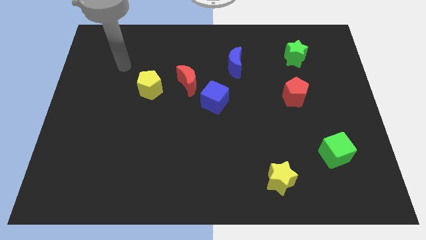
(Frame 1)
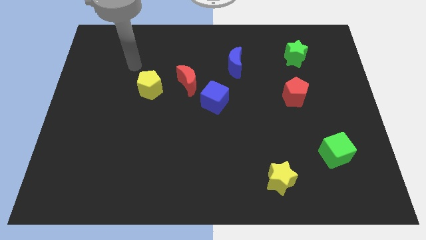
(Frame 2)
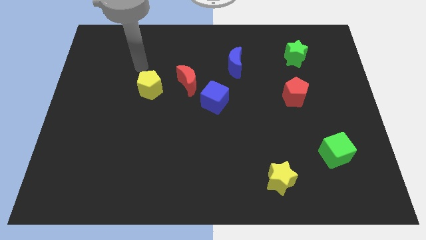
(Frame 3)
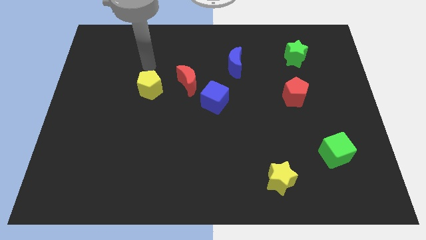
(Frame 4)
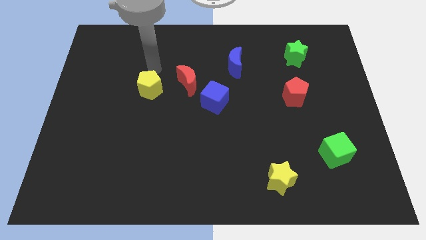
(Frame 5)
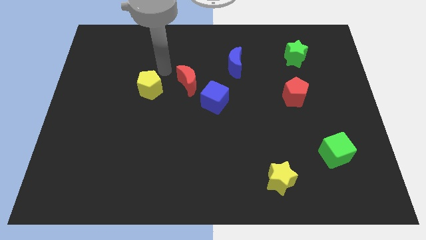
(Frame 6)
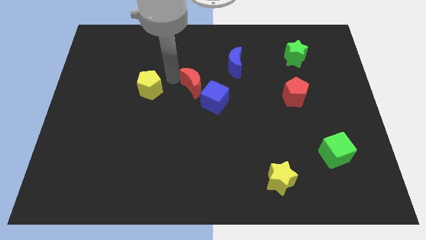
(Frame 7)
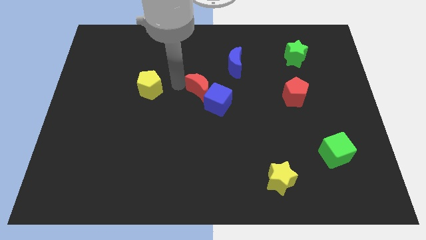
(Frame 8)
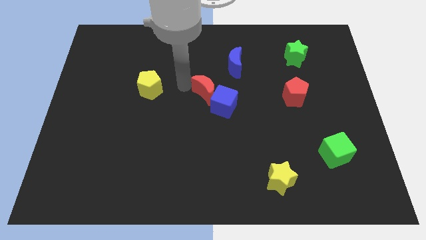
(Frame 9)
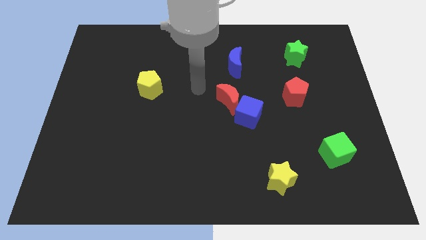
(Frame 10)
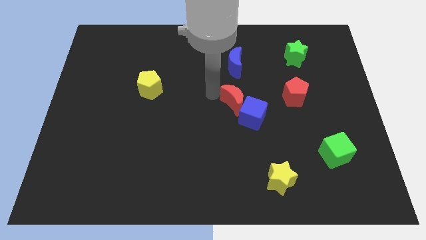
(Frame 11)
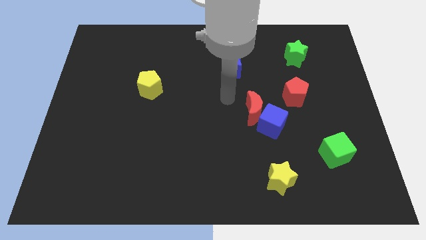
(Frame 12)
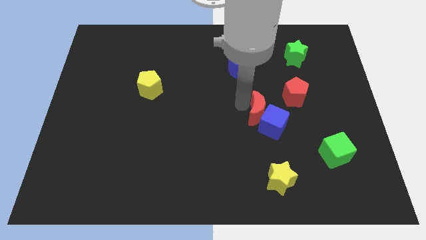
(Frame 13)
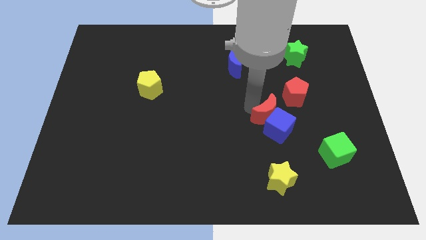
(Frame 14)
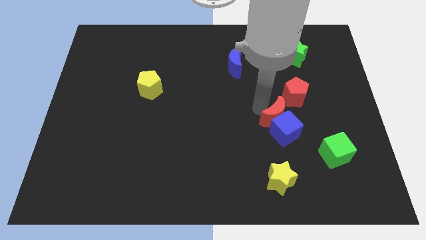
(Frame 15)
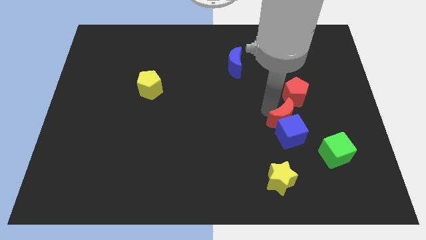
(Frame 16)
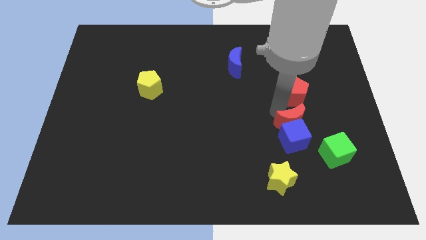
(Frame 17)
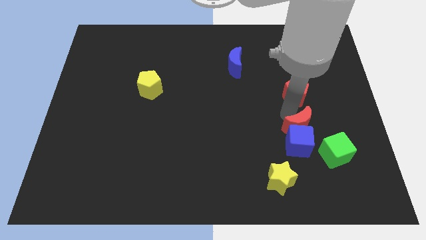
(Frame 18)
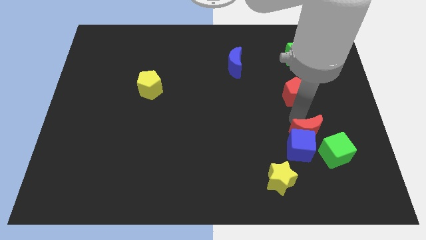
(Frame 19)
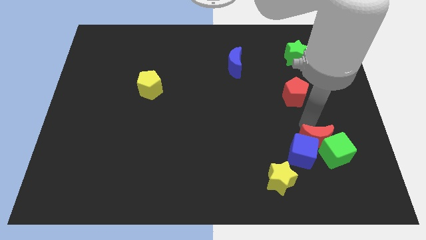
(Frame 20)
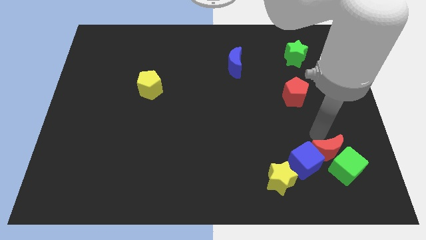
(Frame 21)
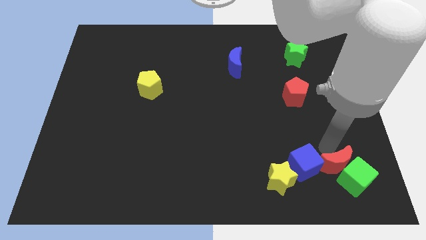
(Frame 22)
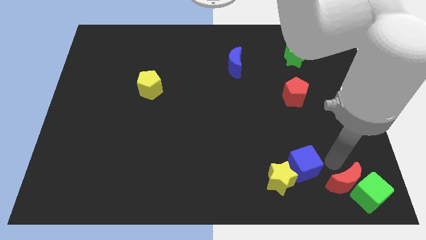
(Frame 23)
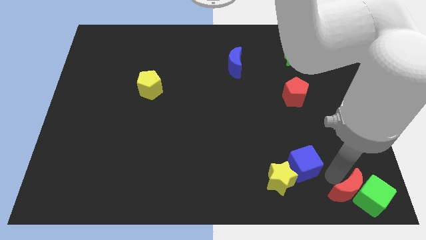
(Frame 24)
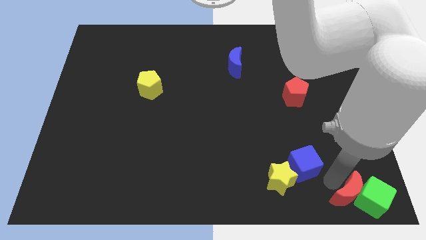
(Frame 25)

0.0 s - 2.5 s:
separate the blue cube from the red moon

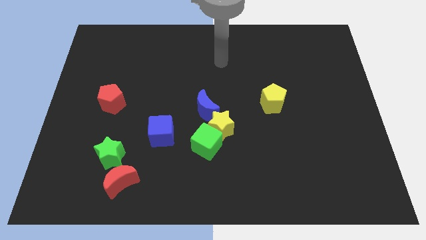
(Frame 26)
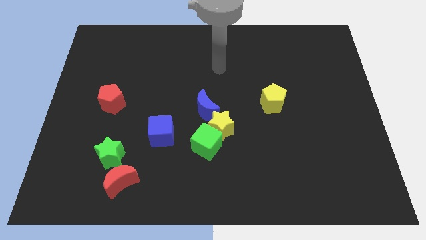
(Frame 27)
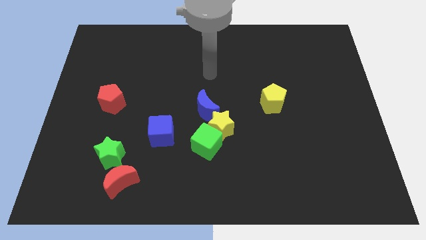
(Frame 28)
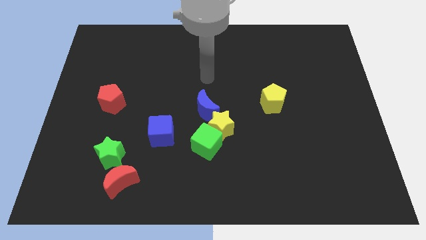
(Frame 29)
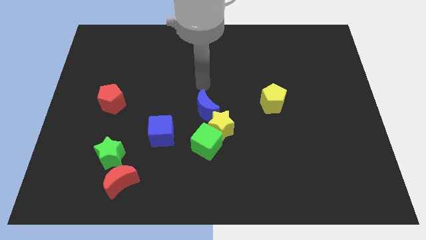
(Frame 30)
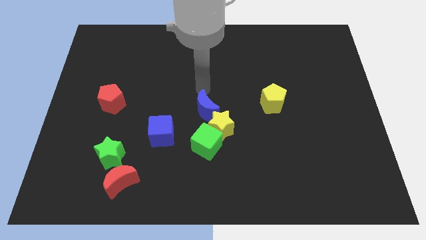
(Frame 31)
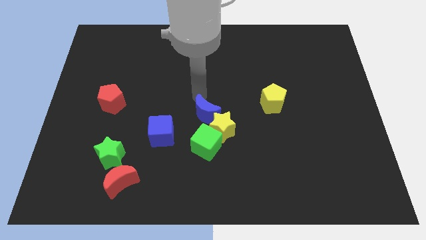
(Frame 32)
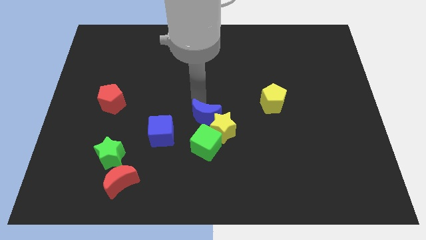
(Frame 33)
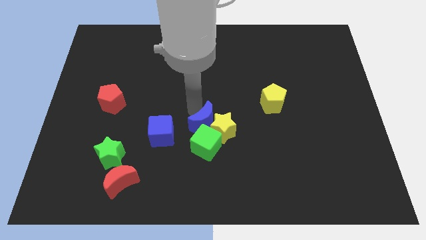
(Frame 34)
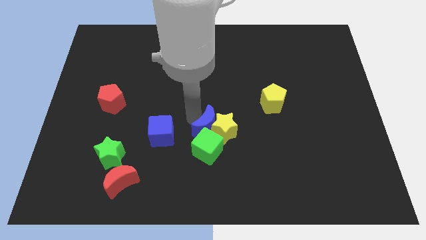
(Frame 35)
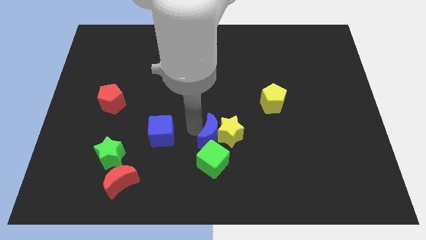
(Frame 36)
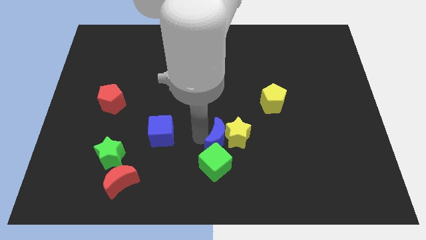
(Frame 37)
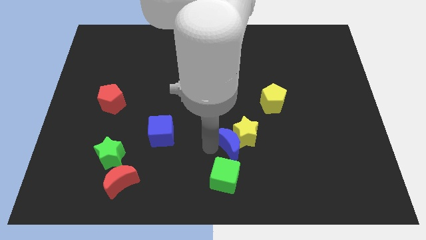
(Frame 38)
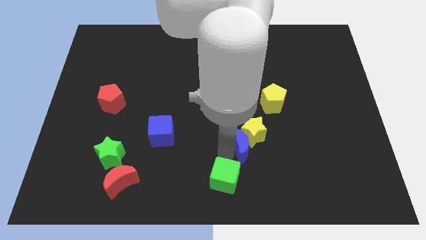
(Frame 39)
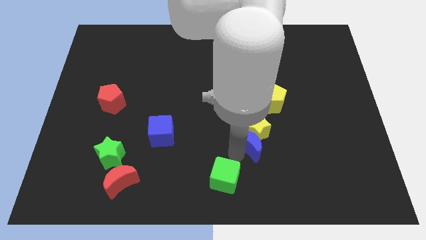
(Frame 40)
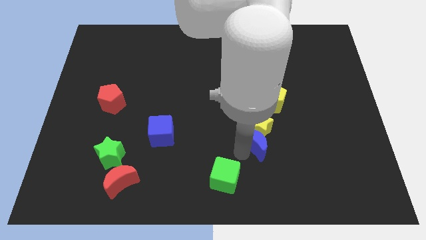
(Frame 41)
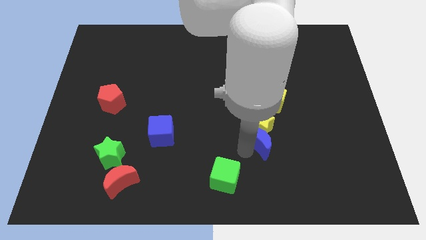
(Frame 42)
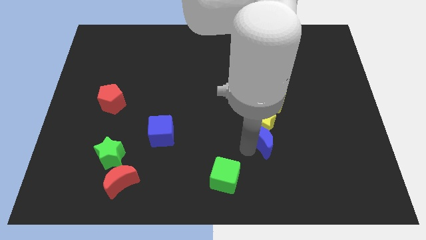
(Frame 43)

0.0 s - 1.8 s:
separate the yellow star from the green cube and blue moon

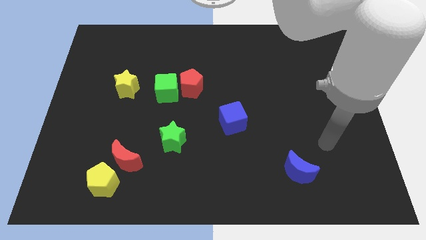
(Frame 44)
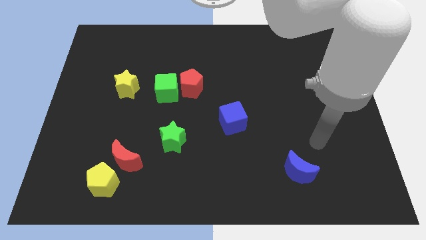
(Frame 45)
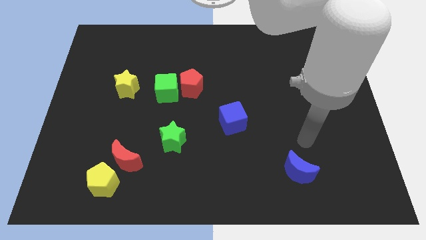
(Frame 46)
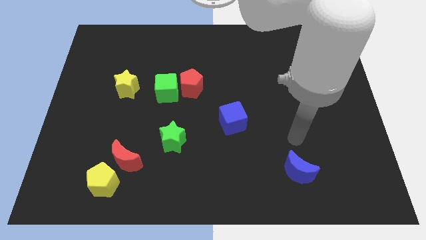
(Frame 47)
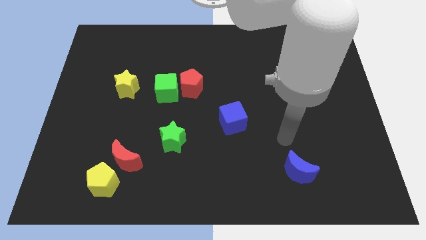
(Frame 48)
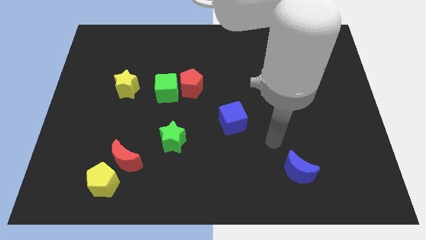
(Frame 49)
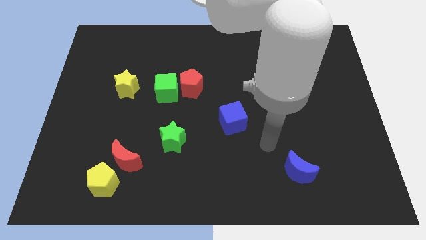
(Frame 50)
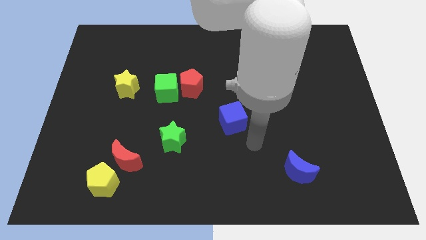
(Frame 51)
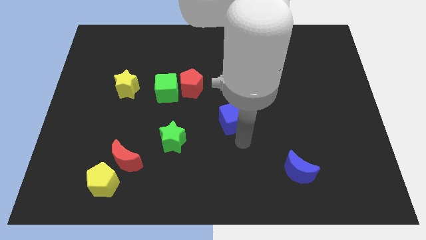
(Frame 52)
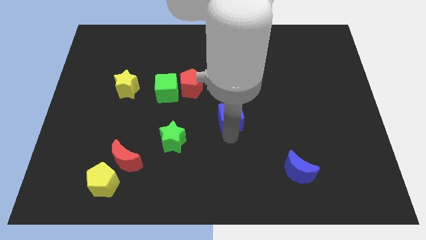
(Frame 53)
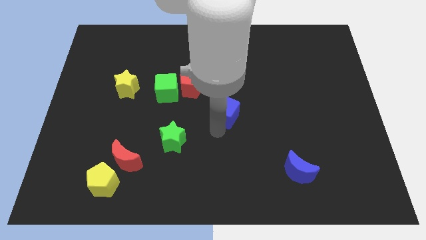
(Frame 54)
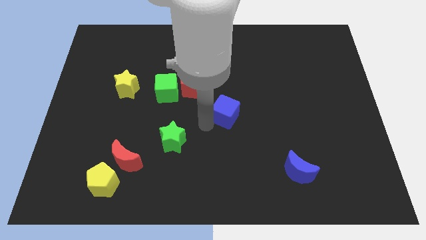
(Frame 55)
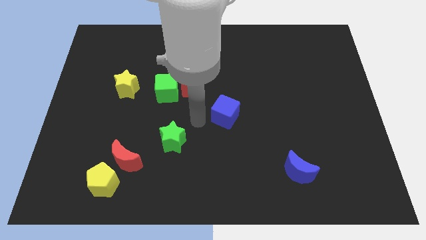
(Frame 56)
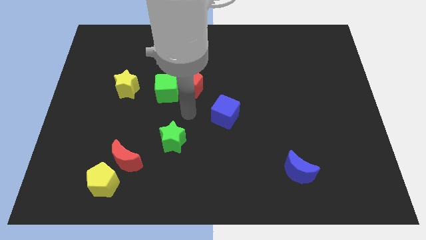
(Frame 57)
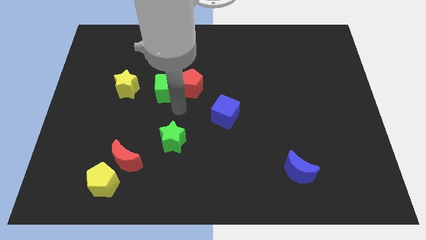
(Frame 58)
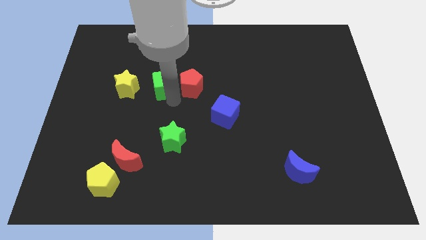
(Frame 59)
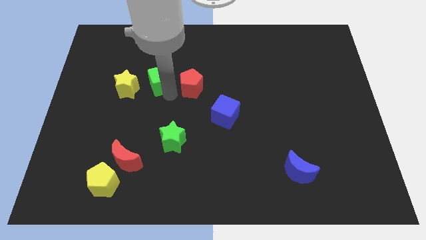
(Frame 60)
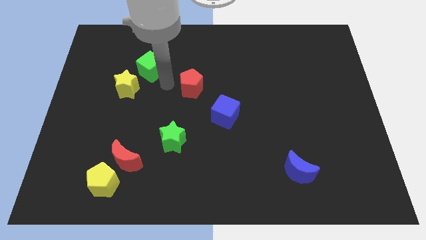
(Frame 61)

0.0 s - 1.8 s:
separate the red pentagon from the green cube

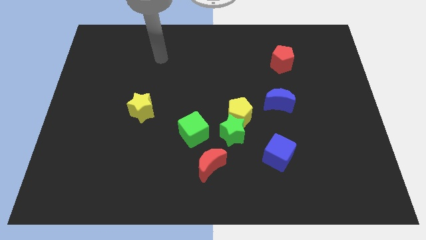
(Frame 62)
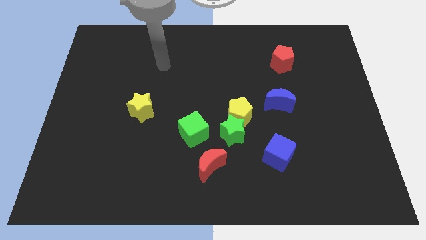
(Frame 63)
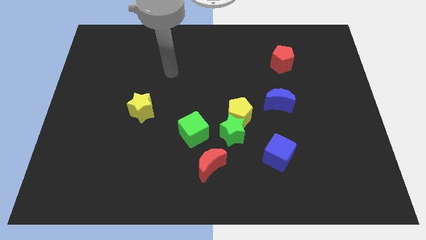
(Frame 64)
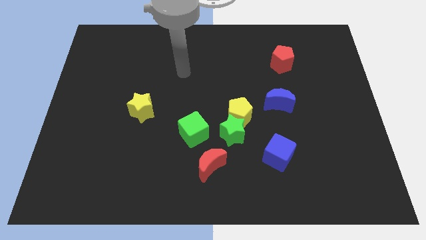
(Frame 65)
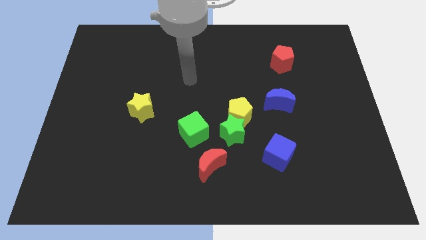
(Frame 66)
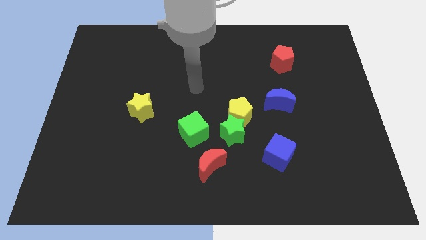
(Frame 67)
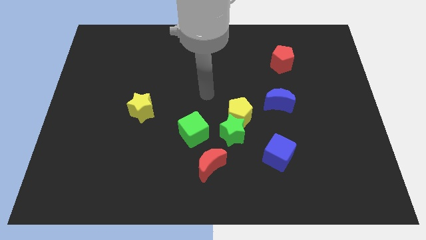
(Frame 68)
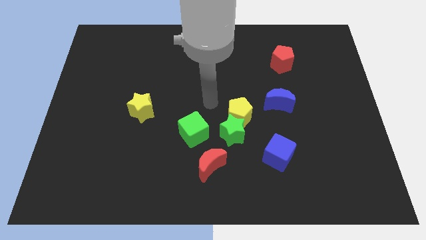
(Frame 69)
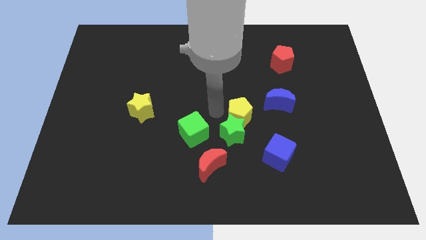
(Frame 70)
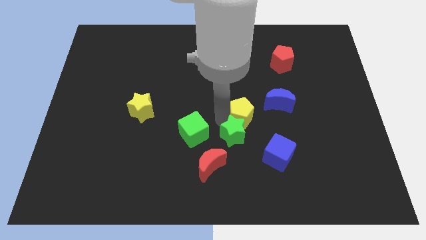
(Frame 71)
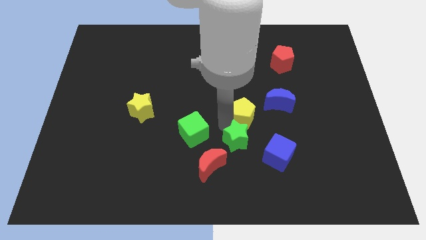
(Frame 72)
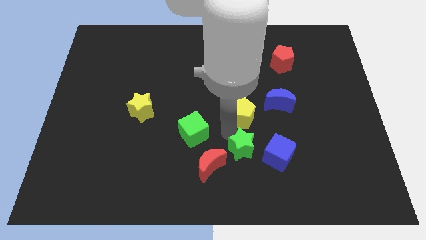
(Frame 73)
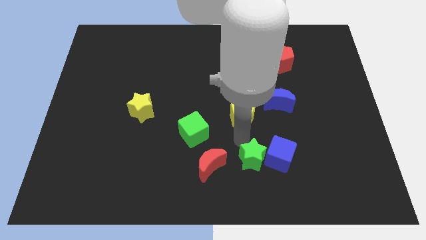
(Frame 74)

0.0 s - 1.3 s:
separate the yellow pentagon from the green star

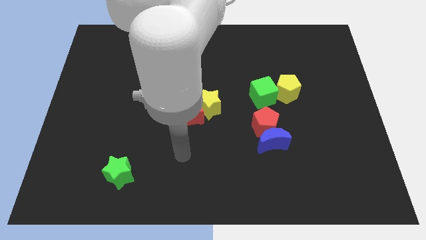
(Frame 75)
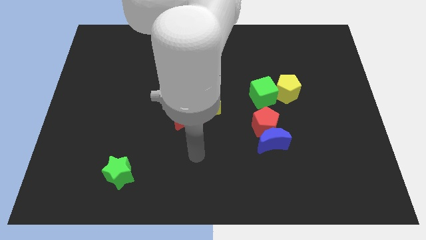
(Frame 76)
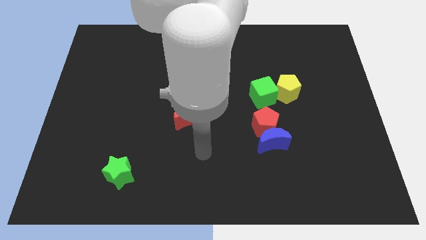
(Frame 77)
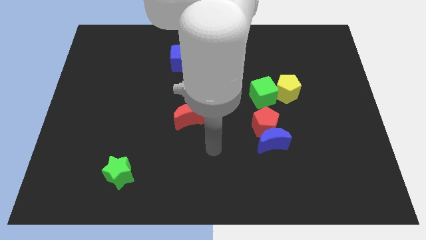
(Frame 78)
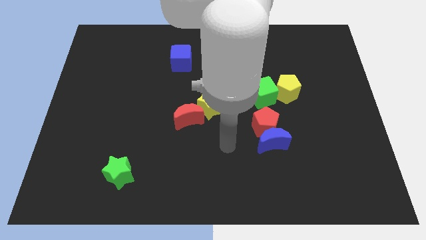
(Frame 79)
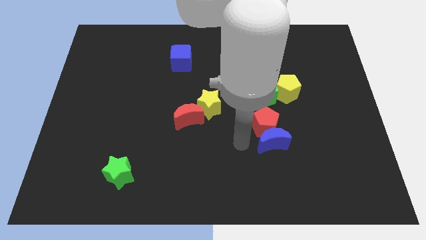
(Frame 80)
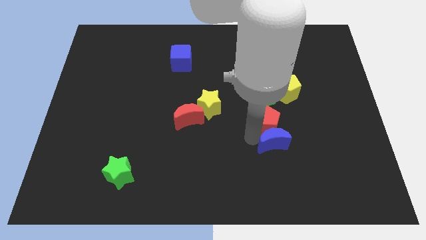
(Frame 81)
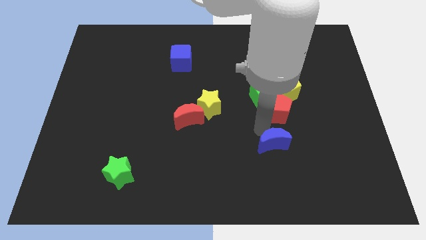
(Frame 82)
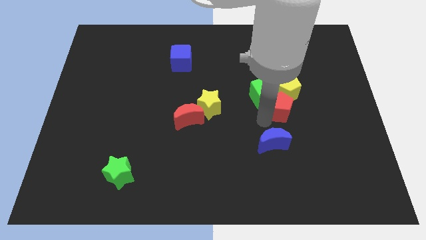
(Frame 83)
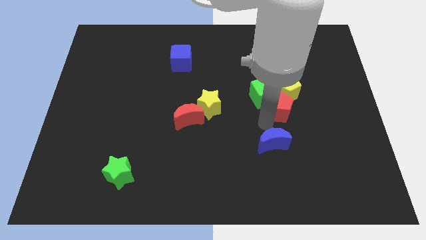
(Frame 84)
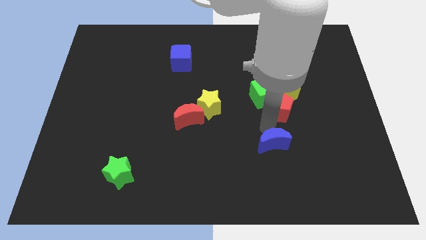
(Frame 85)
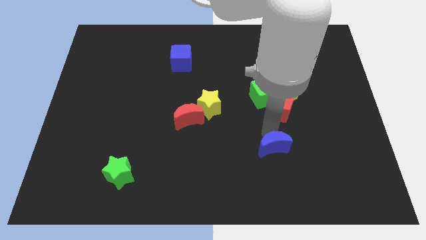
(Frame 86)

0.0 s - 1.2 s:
pull the blue moon apart from the red pentagon

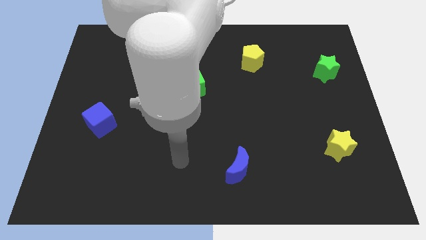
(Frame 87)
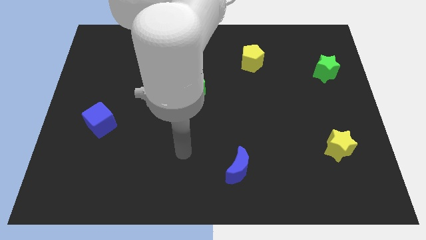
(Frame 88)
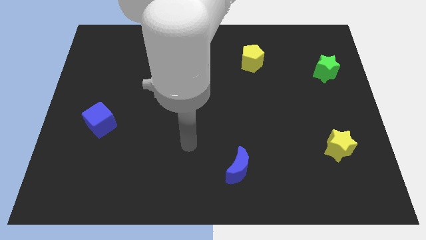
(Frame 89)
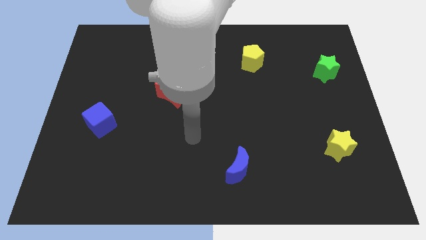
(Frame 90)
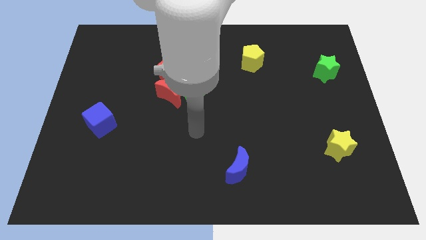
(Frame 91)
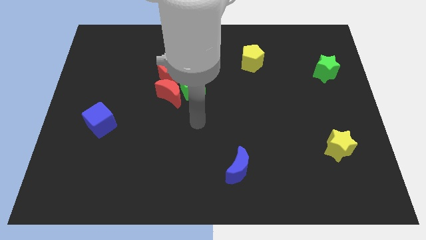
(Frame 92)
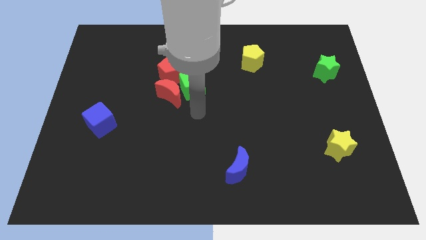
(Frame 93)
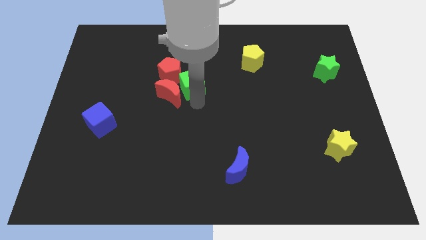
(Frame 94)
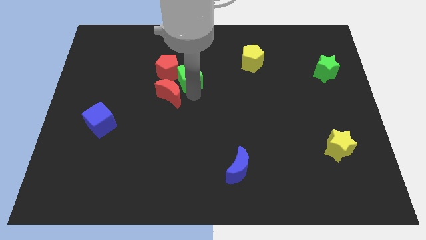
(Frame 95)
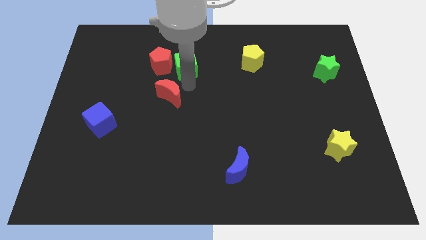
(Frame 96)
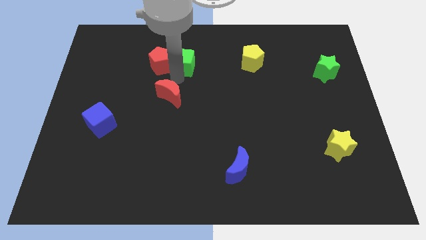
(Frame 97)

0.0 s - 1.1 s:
separate the red moon from the green cube and red pentagon
